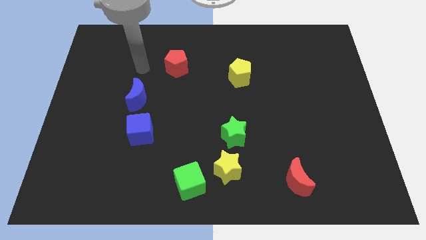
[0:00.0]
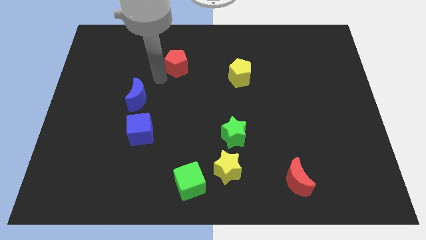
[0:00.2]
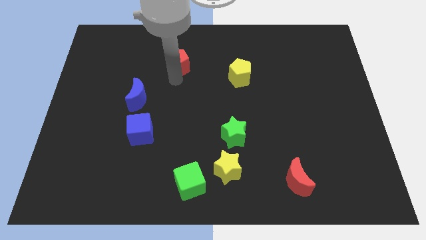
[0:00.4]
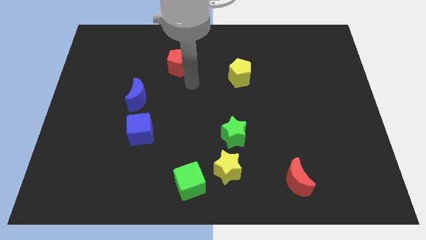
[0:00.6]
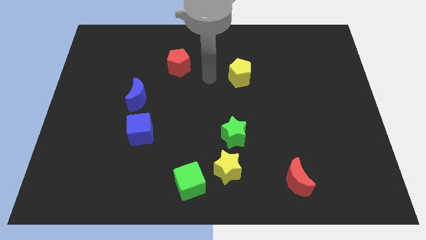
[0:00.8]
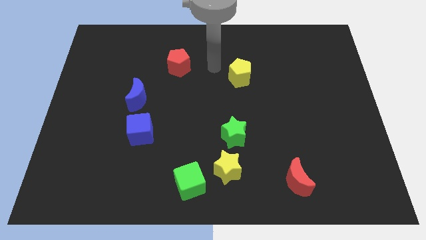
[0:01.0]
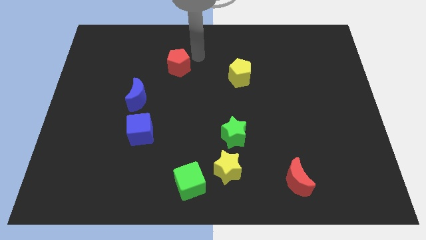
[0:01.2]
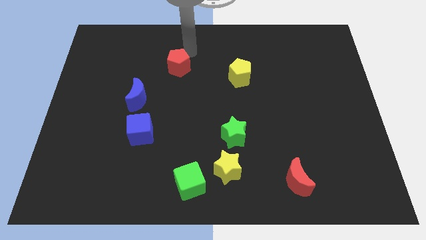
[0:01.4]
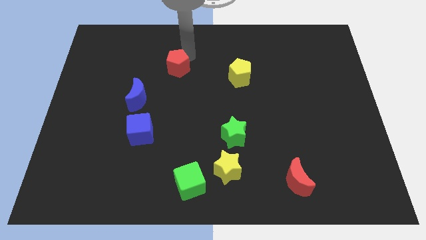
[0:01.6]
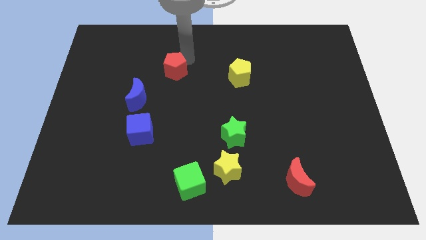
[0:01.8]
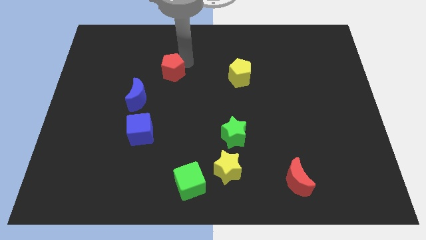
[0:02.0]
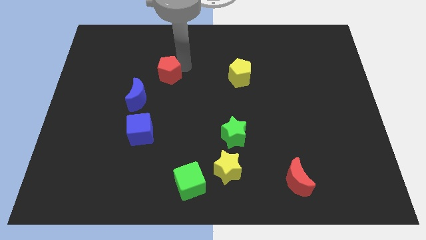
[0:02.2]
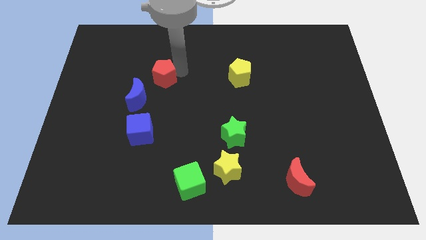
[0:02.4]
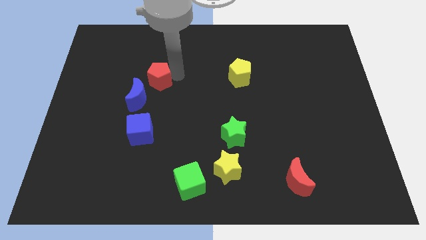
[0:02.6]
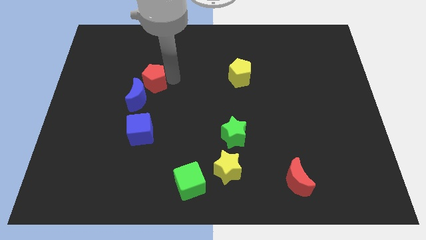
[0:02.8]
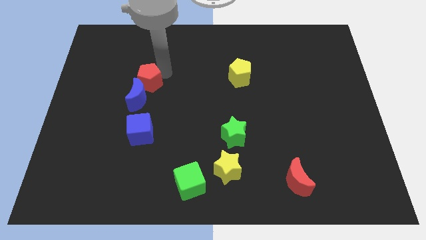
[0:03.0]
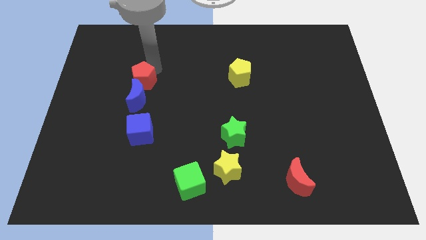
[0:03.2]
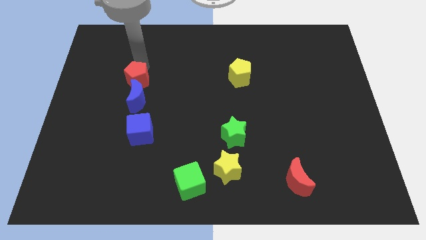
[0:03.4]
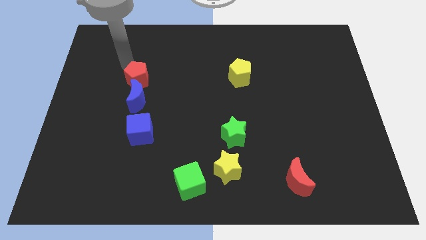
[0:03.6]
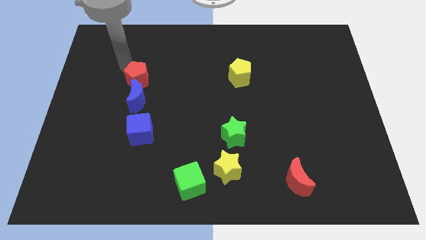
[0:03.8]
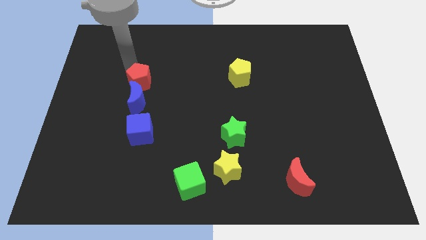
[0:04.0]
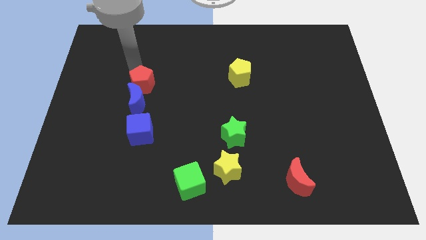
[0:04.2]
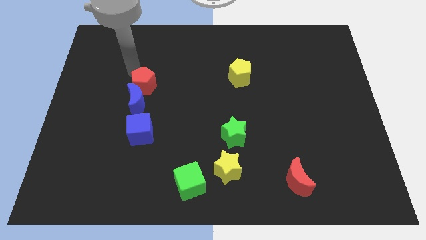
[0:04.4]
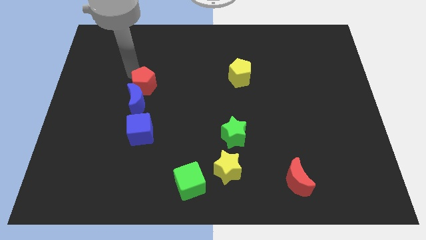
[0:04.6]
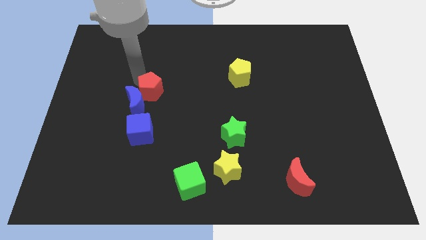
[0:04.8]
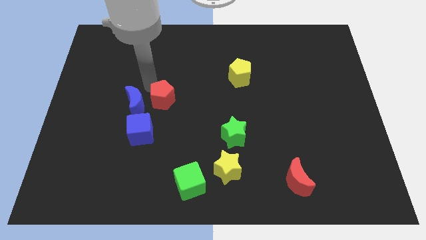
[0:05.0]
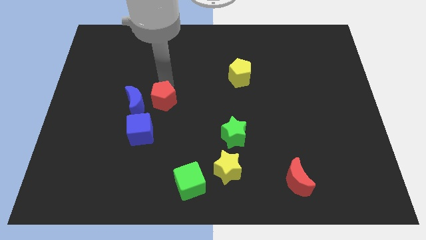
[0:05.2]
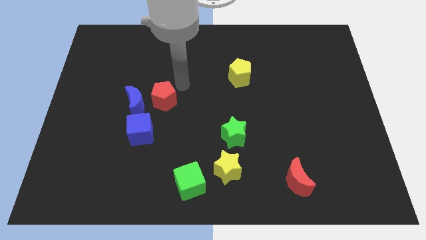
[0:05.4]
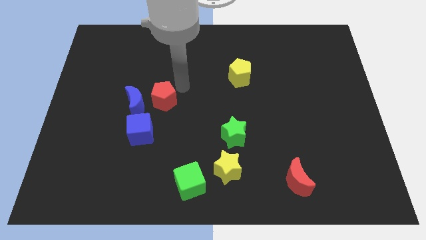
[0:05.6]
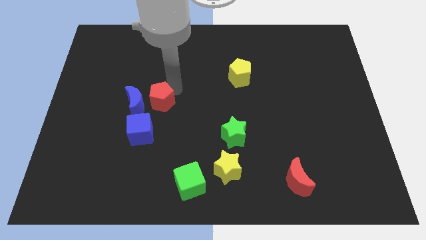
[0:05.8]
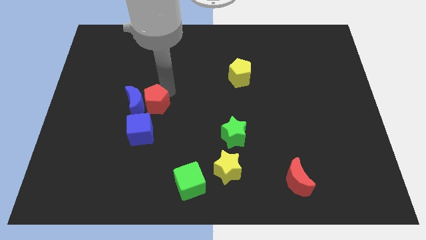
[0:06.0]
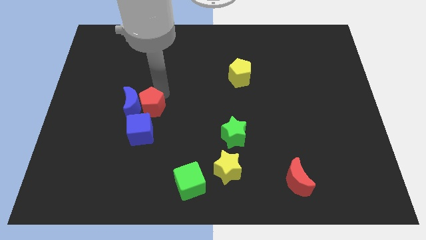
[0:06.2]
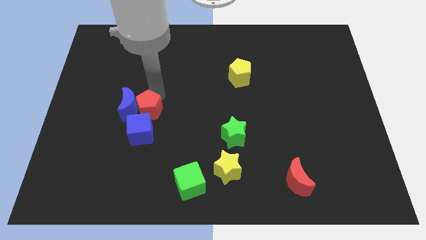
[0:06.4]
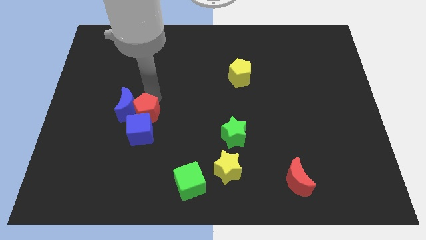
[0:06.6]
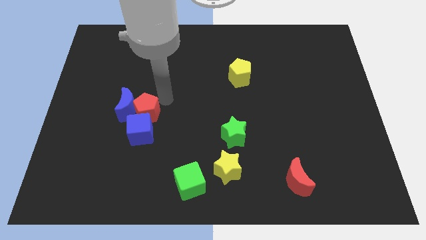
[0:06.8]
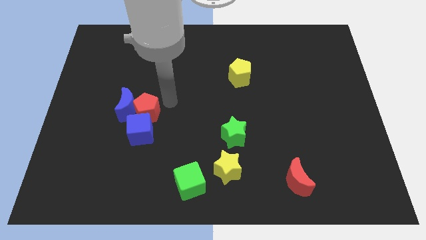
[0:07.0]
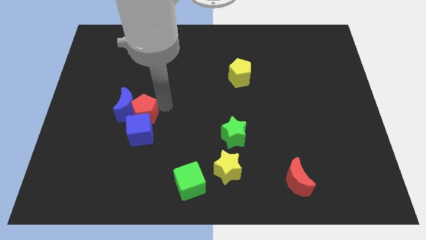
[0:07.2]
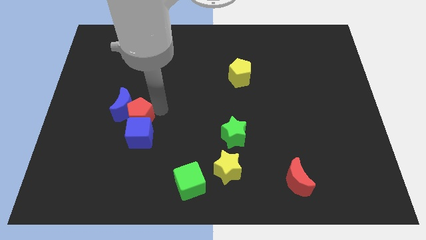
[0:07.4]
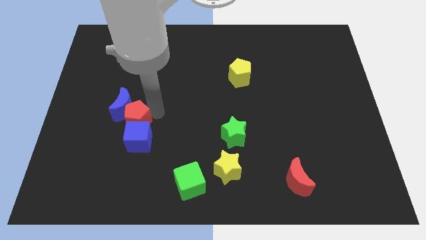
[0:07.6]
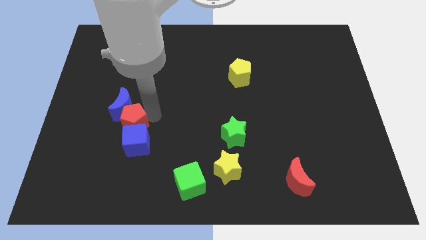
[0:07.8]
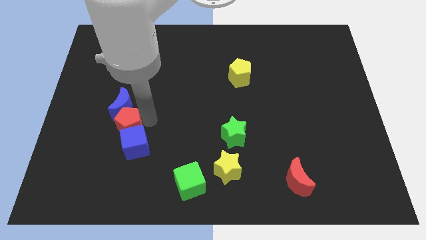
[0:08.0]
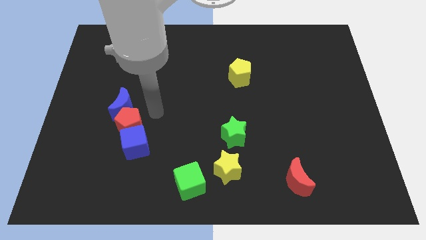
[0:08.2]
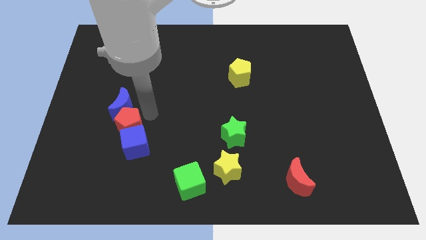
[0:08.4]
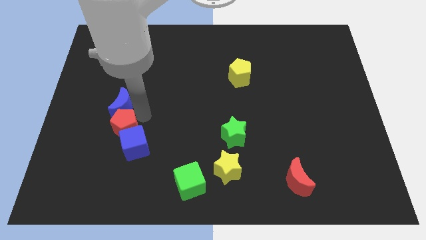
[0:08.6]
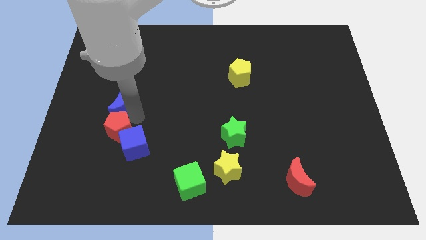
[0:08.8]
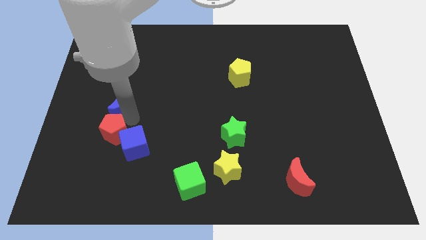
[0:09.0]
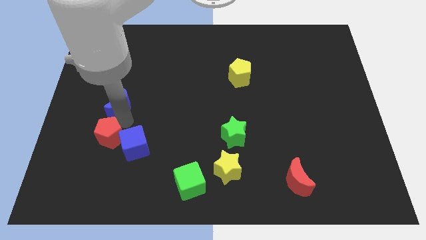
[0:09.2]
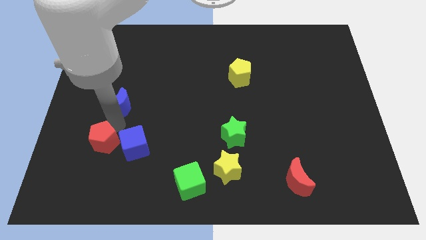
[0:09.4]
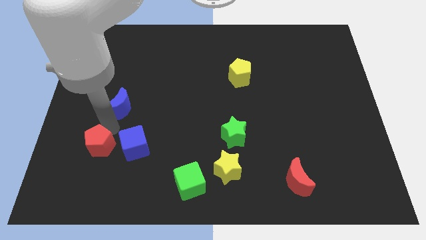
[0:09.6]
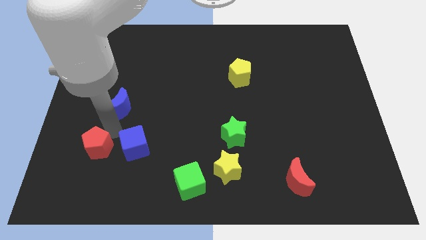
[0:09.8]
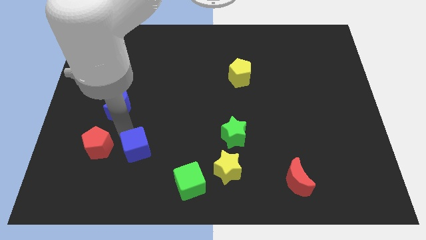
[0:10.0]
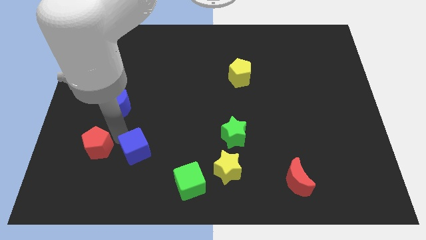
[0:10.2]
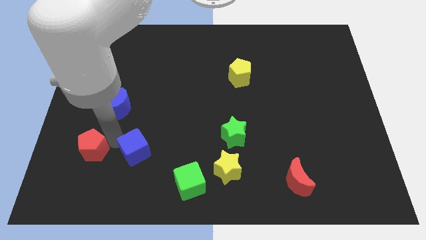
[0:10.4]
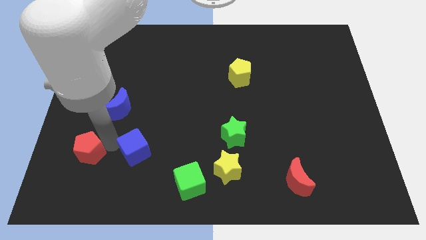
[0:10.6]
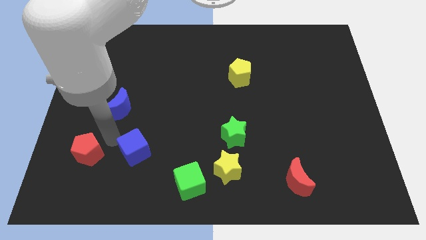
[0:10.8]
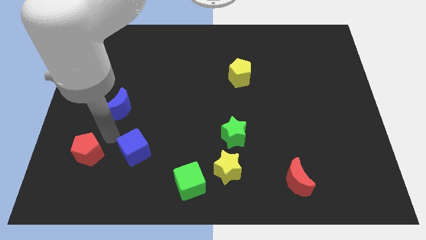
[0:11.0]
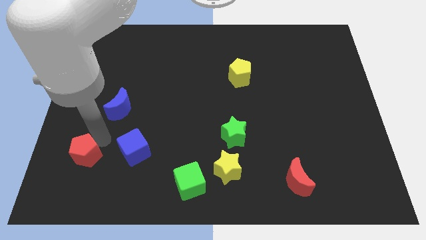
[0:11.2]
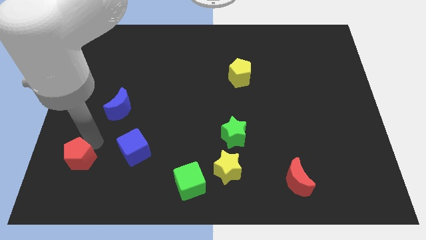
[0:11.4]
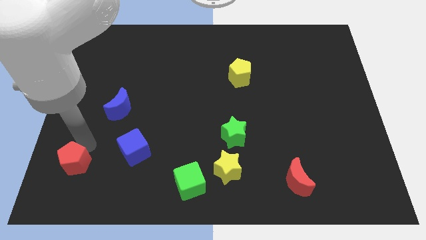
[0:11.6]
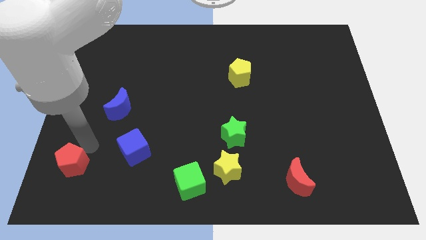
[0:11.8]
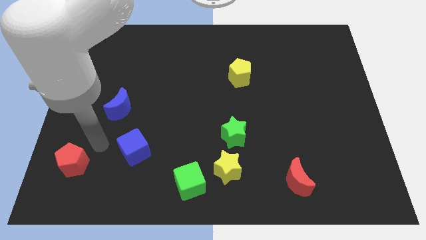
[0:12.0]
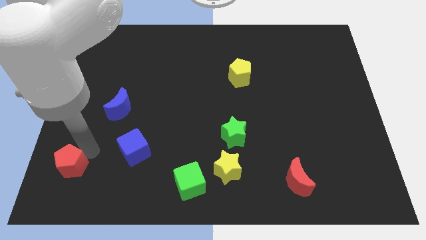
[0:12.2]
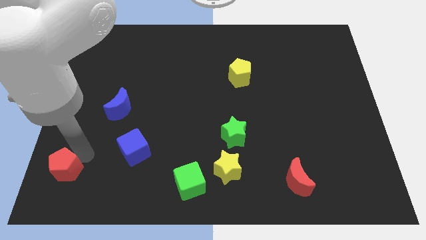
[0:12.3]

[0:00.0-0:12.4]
move the red pentagon to the bottom left of the board
